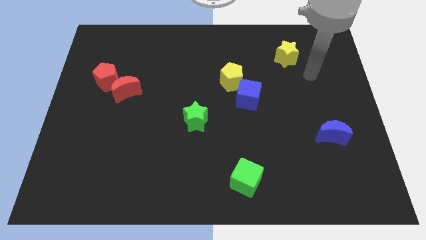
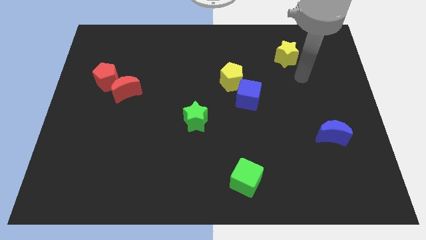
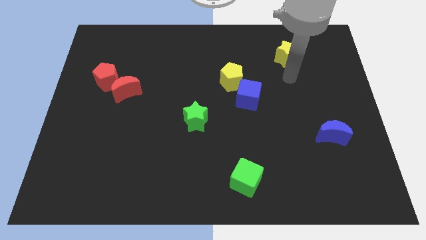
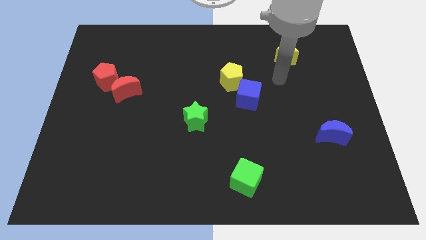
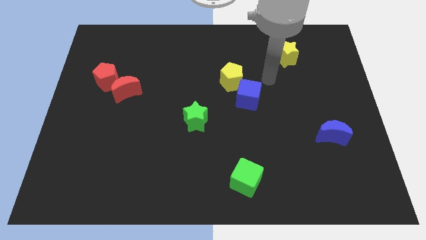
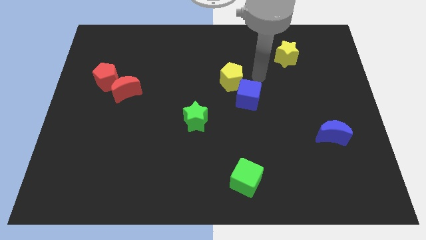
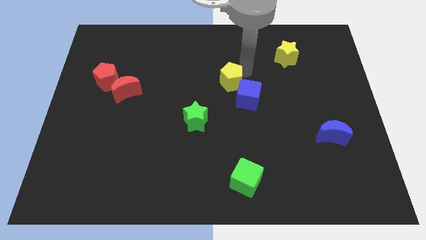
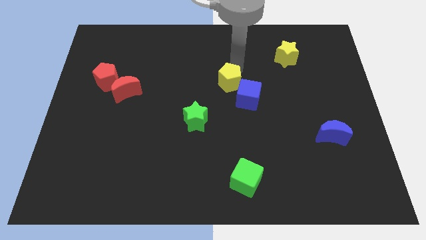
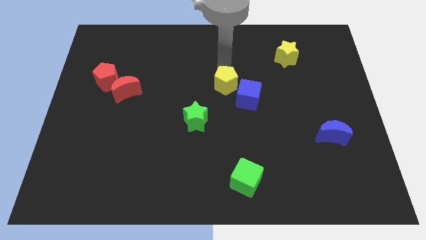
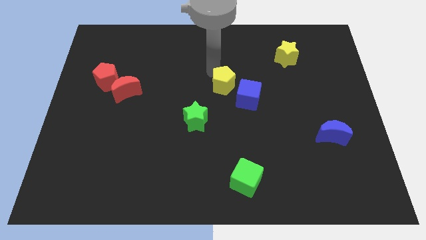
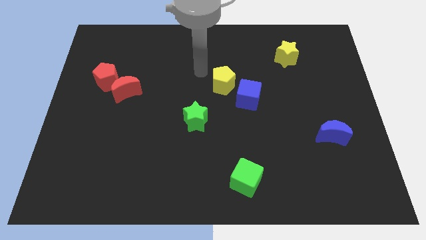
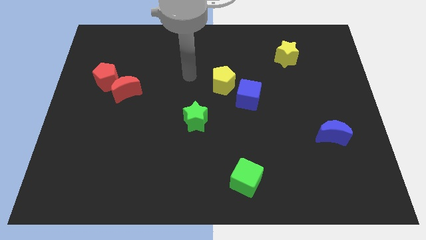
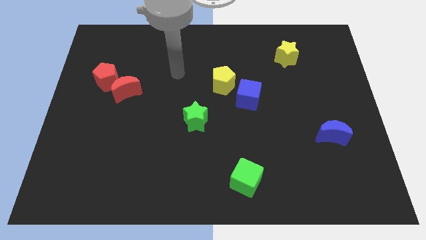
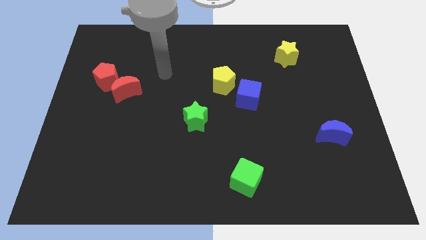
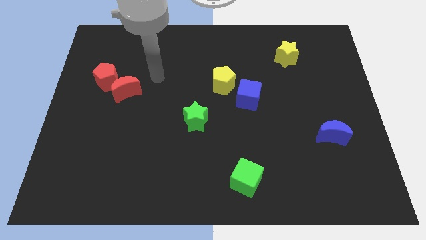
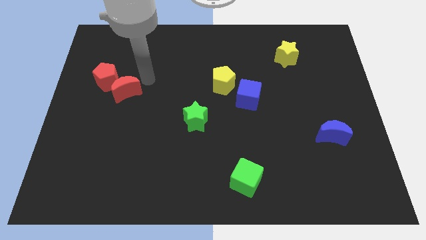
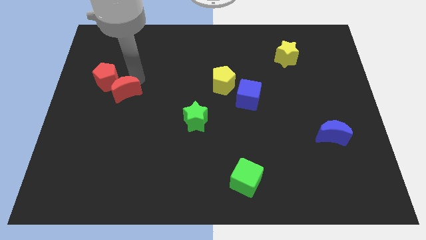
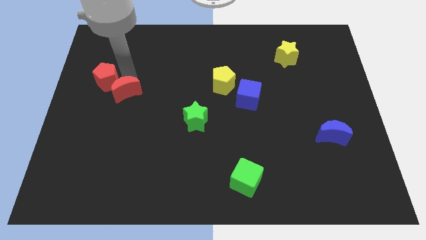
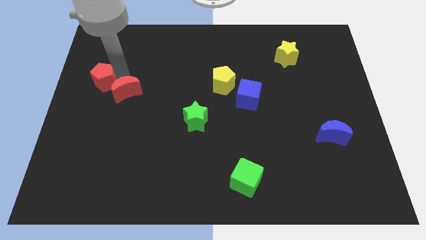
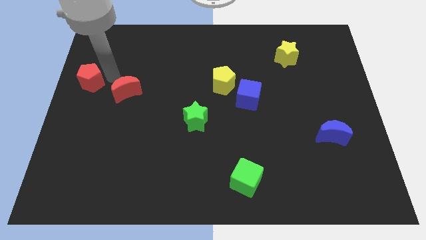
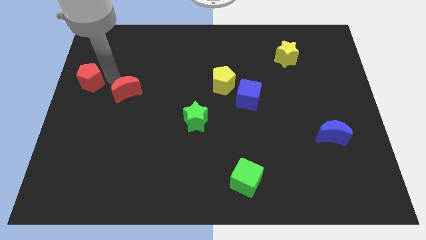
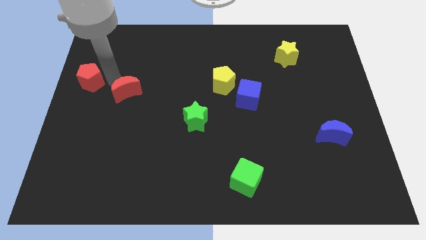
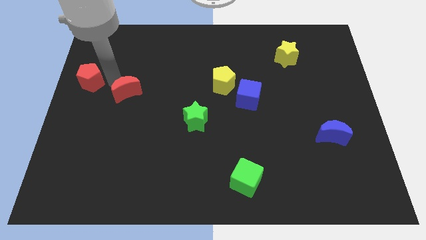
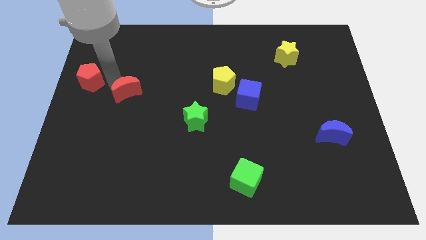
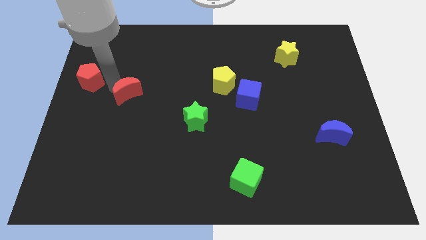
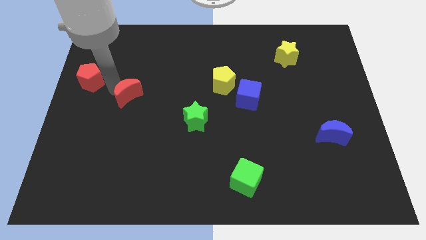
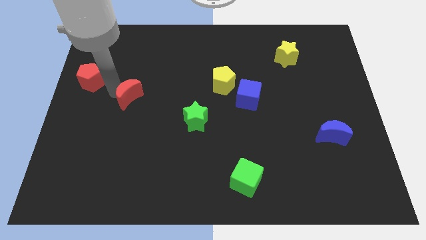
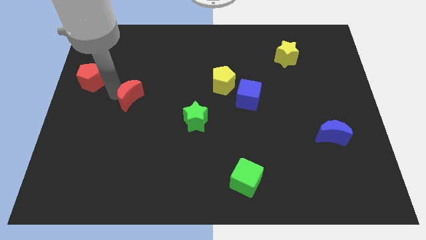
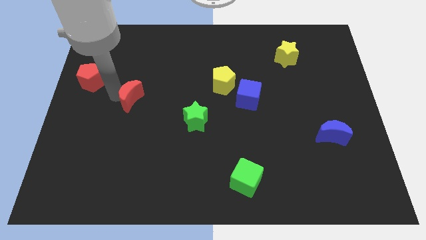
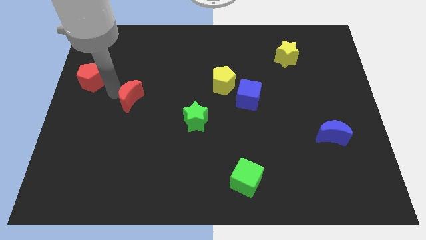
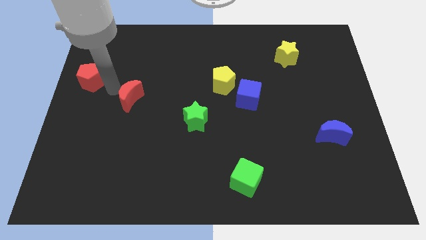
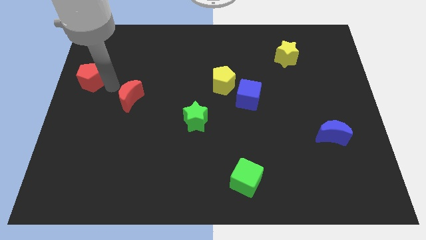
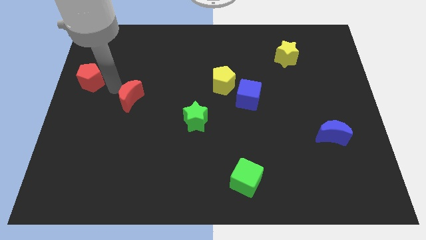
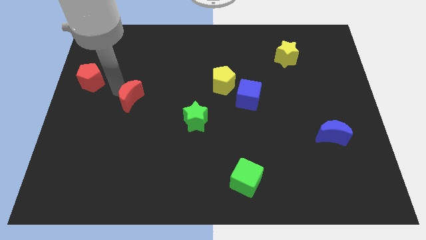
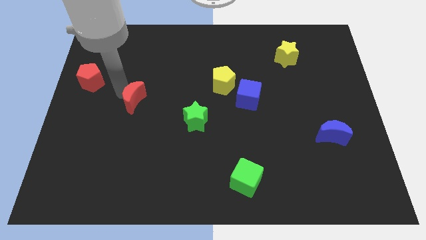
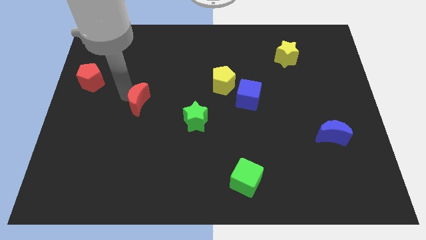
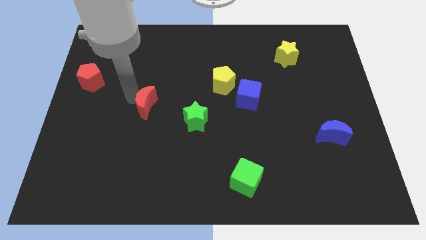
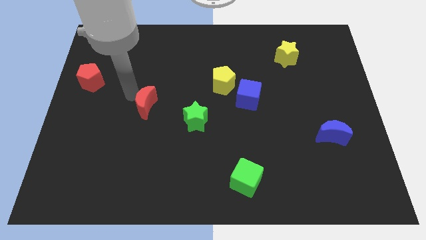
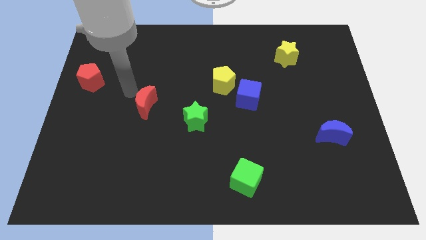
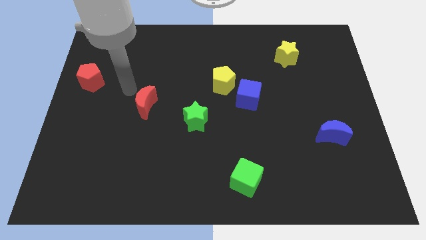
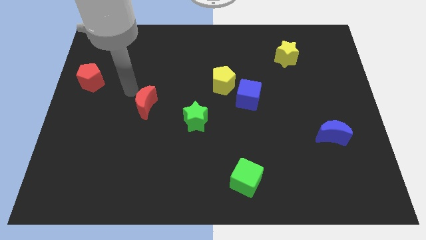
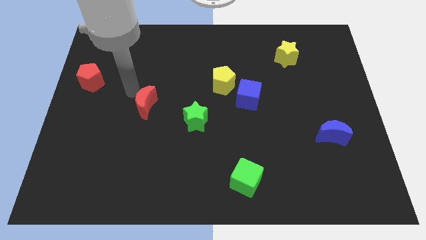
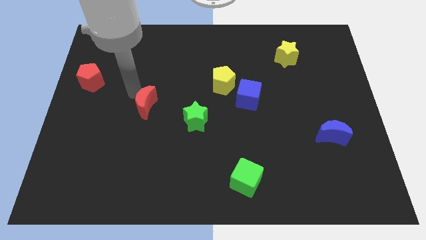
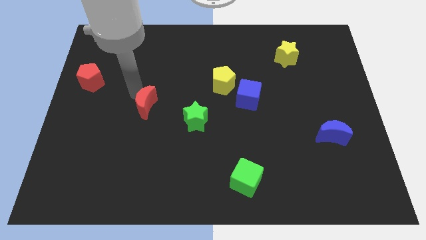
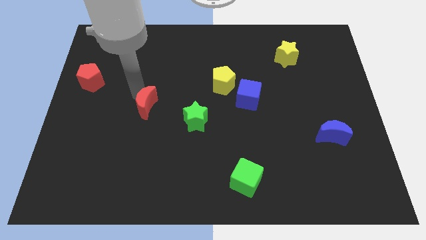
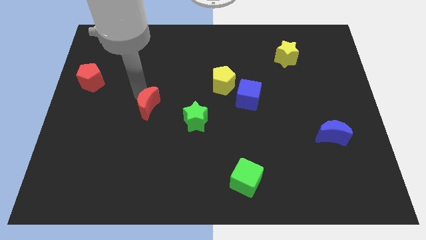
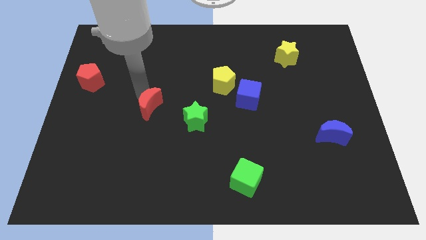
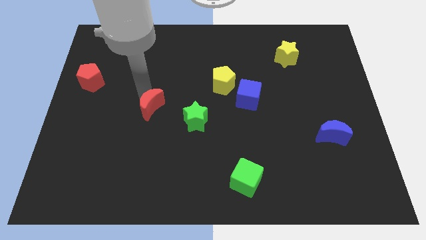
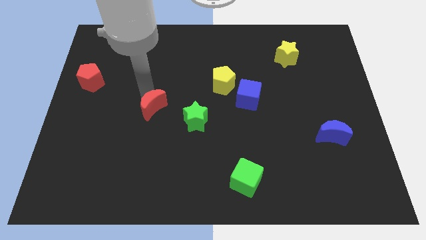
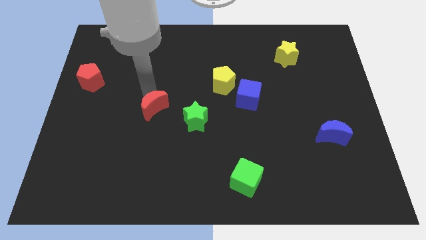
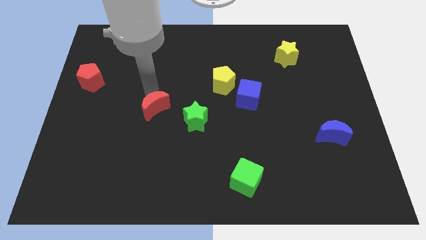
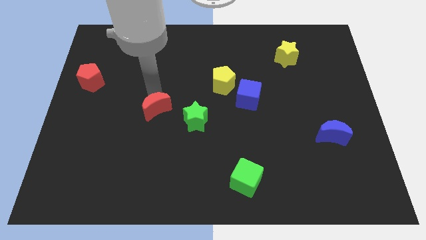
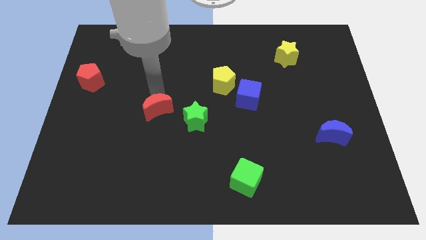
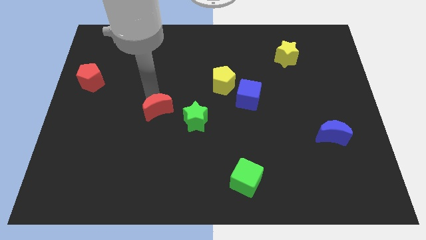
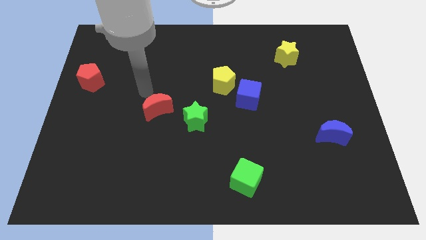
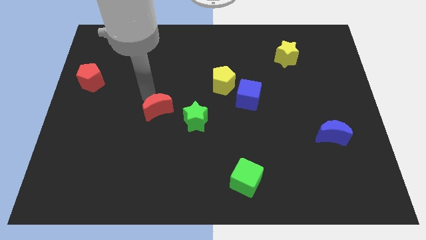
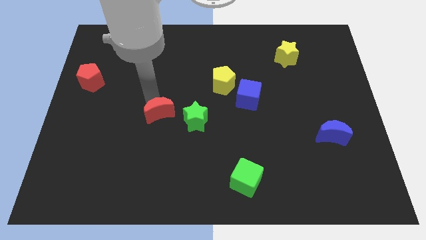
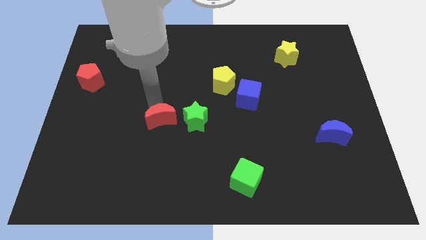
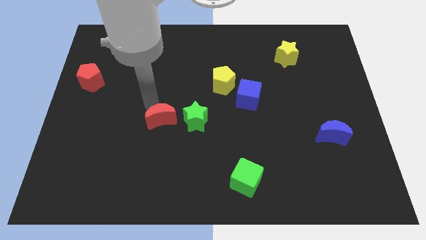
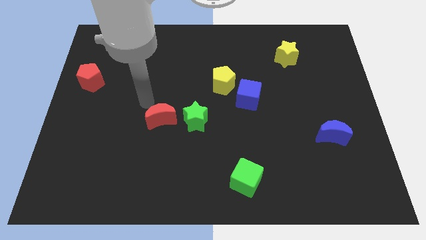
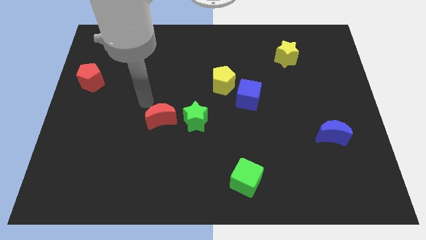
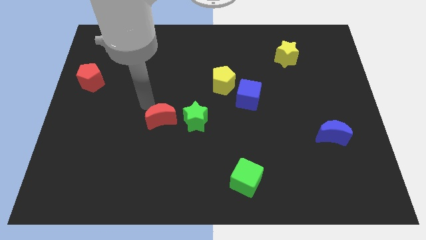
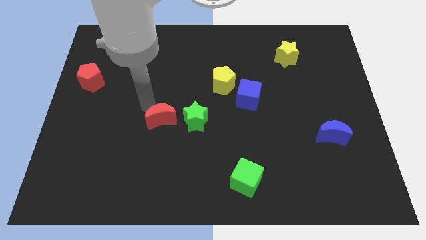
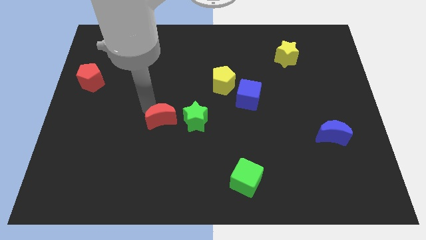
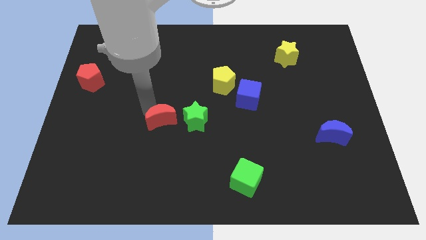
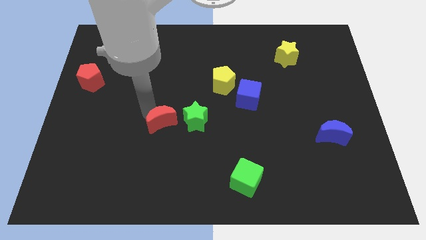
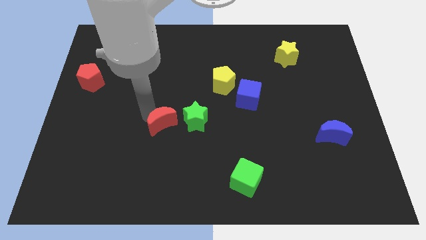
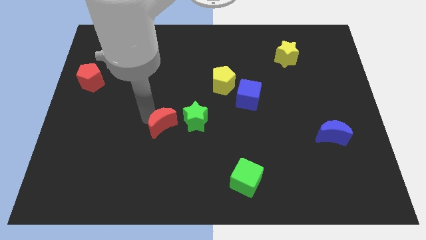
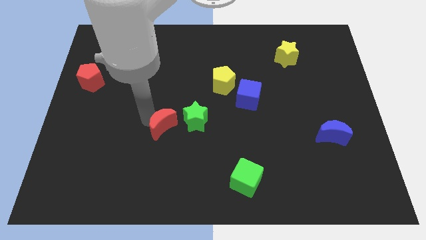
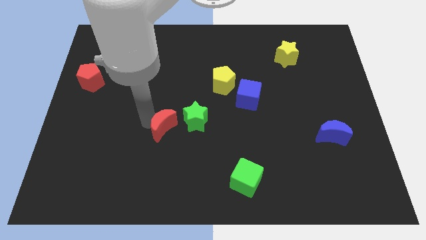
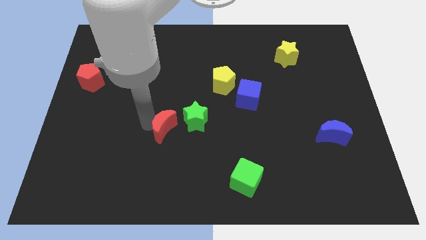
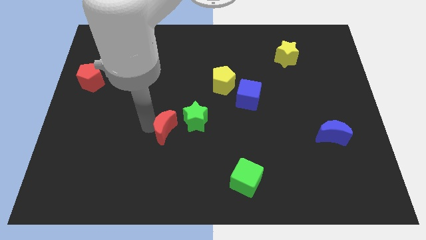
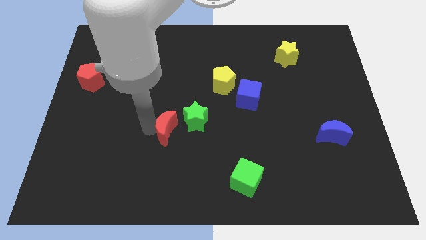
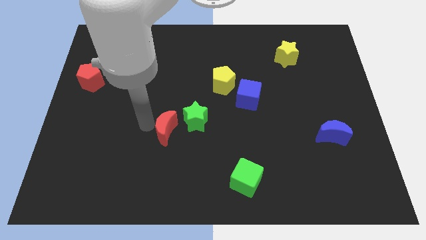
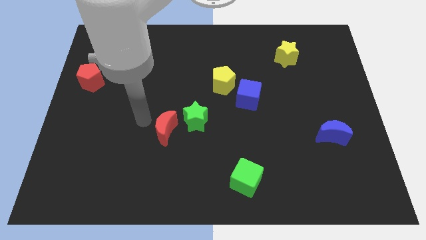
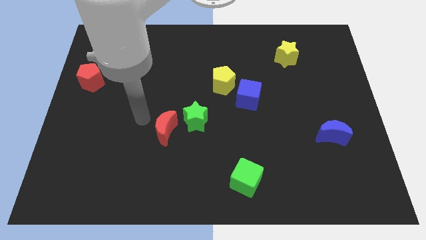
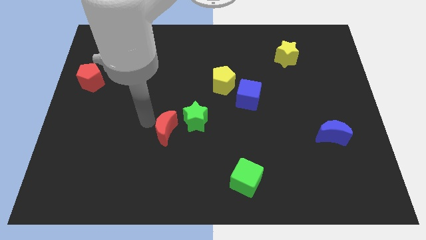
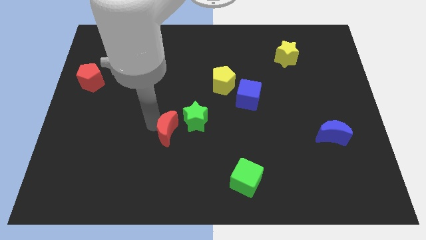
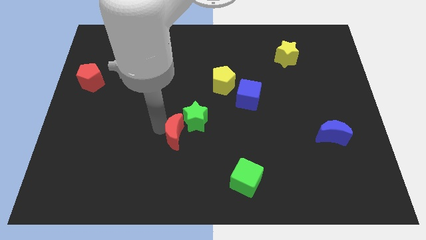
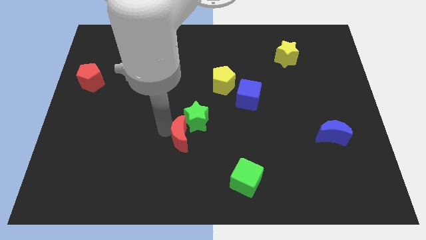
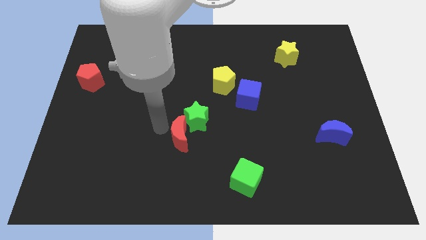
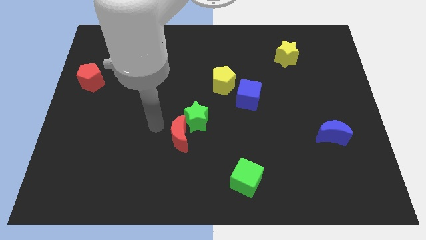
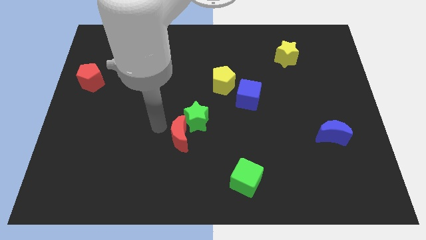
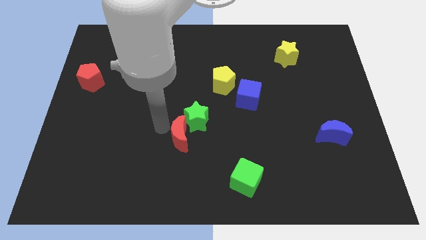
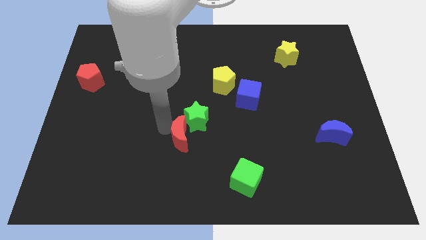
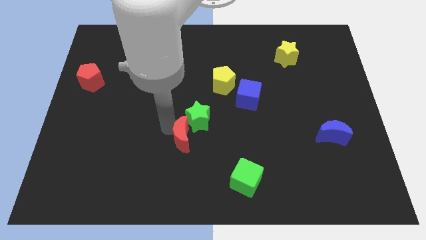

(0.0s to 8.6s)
move the red moon down and then right
